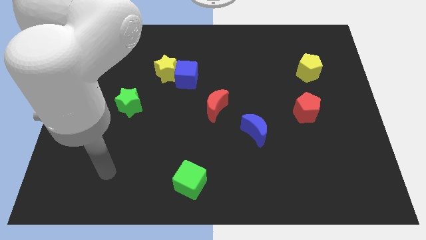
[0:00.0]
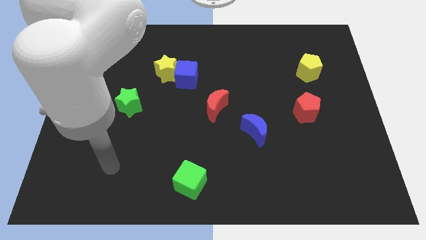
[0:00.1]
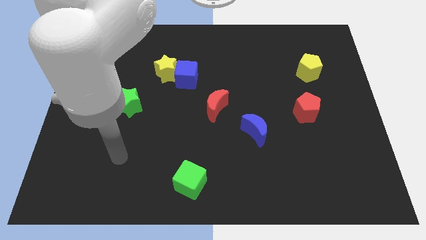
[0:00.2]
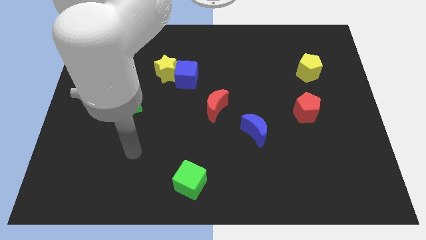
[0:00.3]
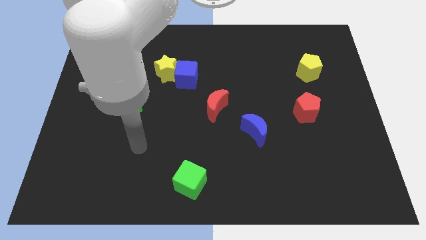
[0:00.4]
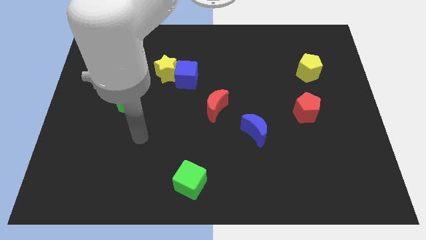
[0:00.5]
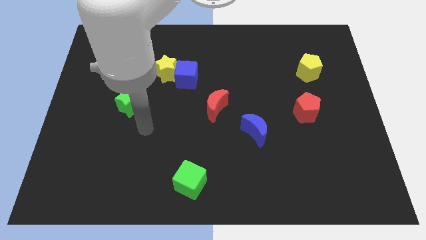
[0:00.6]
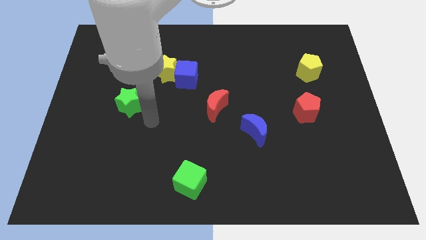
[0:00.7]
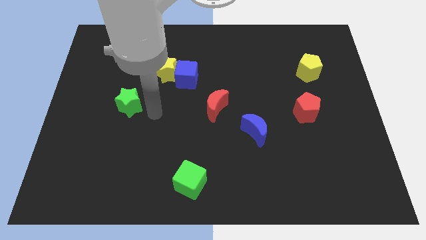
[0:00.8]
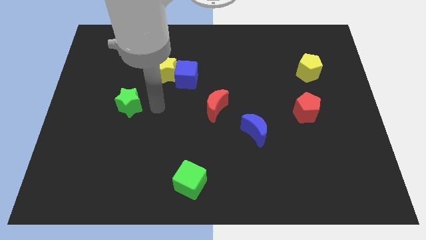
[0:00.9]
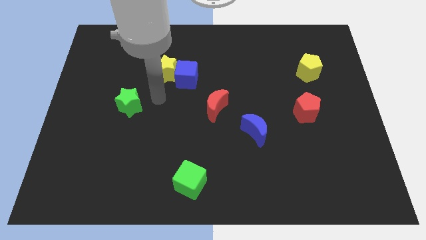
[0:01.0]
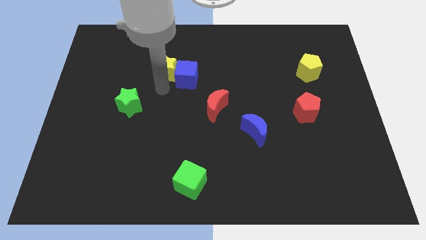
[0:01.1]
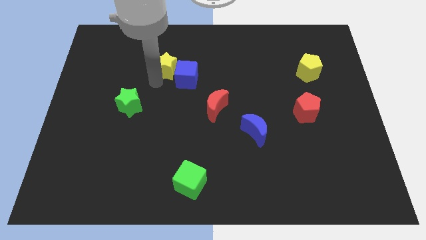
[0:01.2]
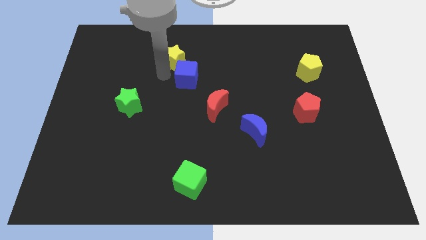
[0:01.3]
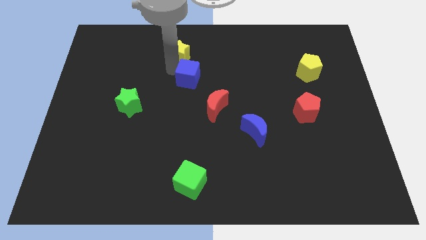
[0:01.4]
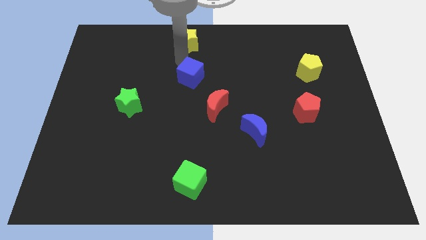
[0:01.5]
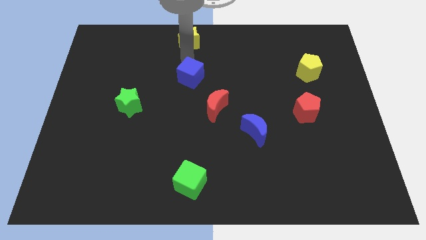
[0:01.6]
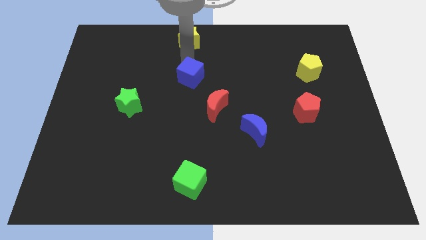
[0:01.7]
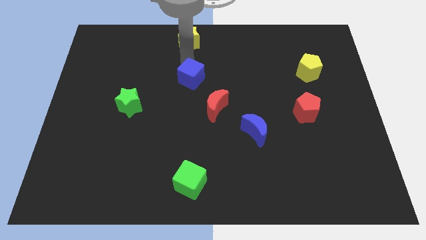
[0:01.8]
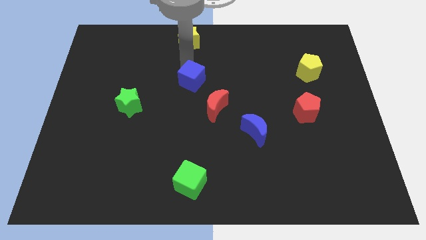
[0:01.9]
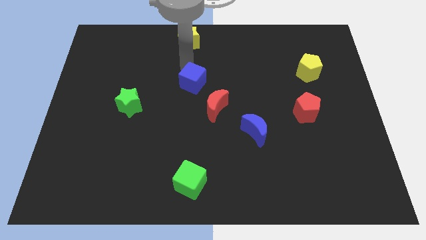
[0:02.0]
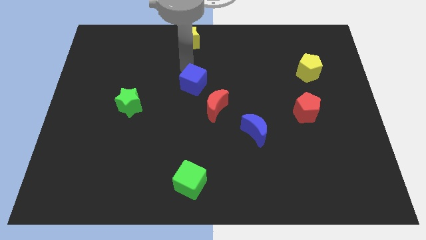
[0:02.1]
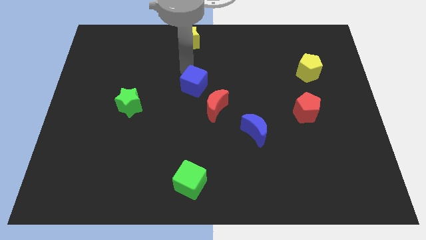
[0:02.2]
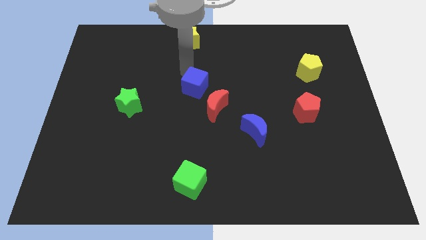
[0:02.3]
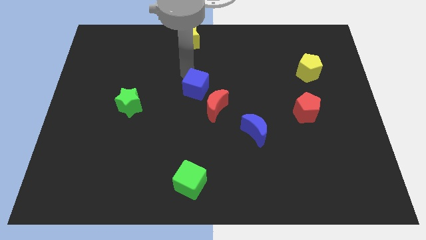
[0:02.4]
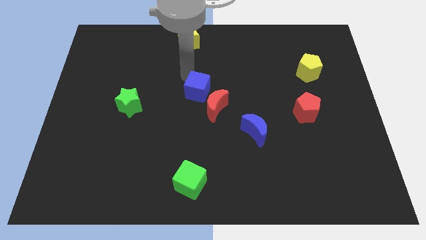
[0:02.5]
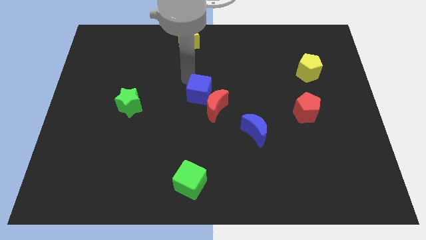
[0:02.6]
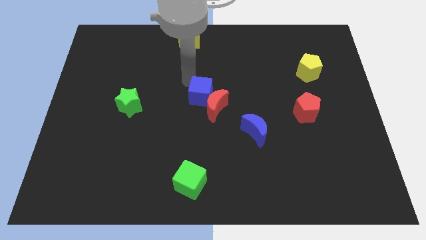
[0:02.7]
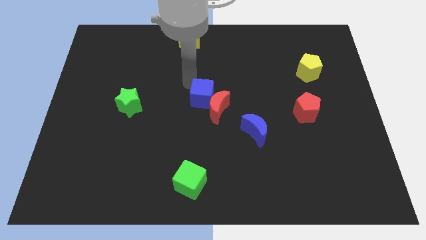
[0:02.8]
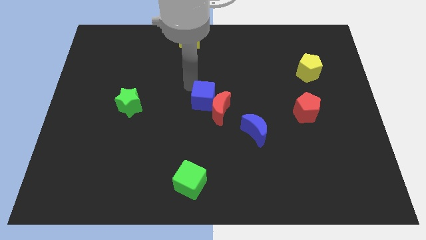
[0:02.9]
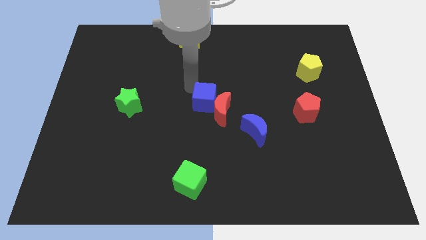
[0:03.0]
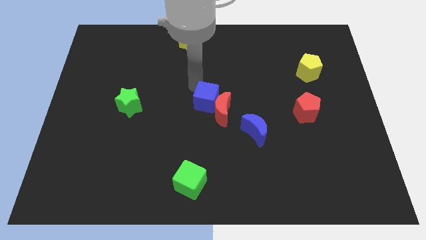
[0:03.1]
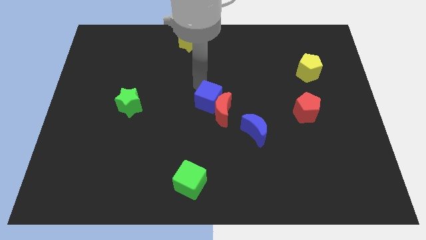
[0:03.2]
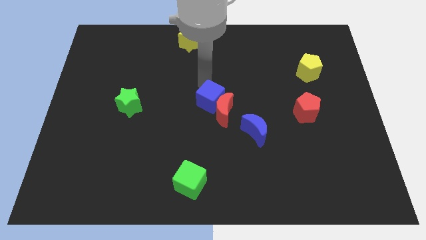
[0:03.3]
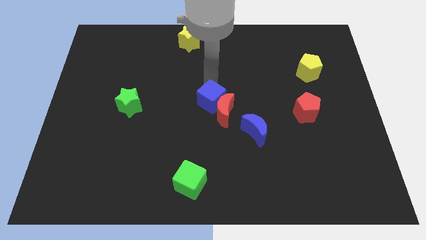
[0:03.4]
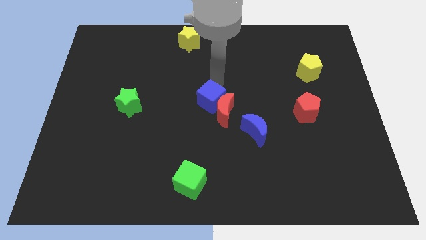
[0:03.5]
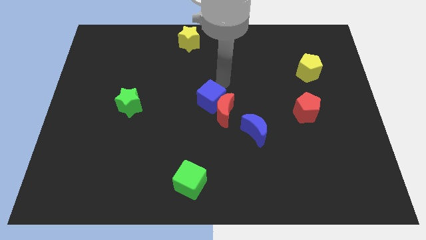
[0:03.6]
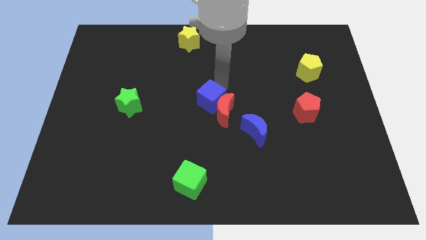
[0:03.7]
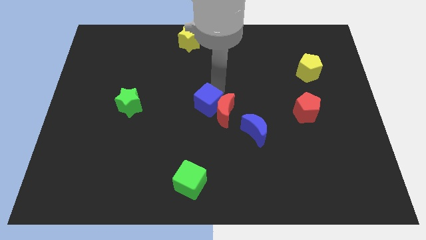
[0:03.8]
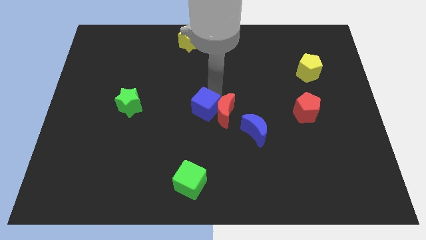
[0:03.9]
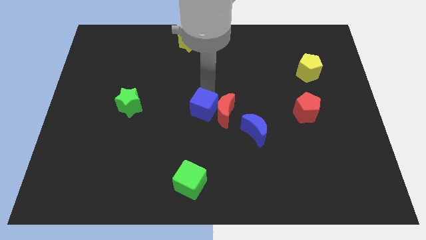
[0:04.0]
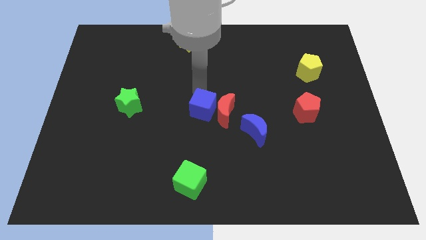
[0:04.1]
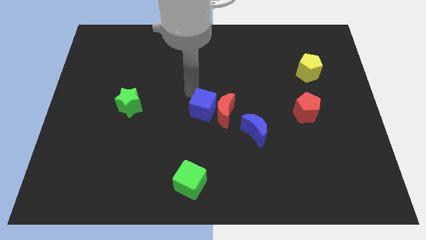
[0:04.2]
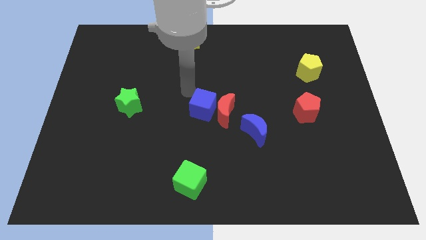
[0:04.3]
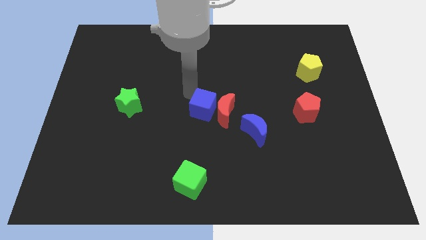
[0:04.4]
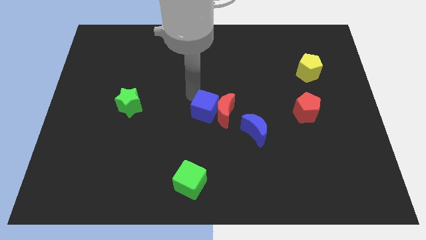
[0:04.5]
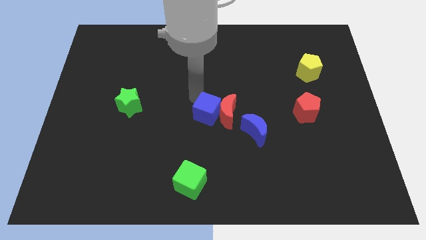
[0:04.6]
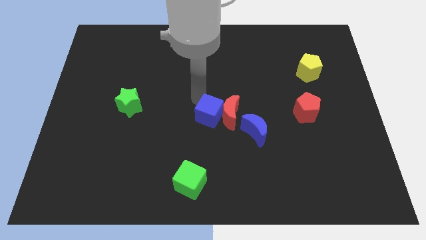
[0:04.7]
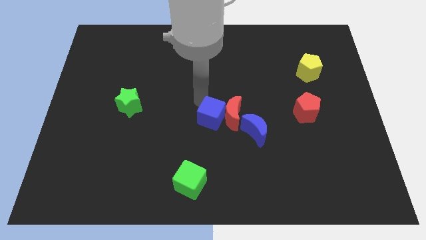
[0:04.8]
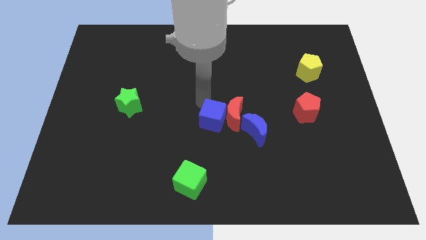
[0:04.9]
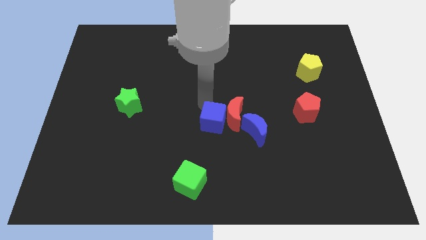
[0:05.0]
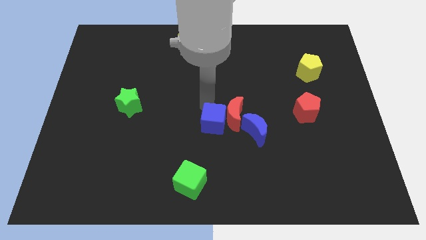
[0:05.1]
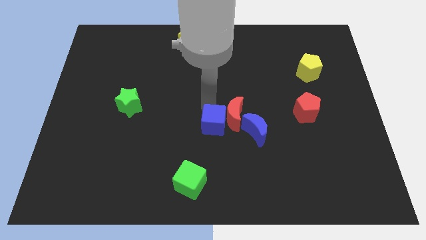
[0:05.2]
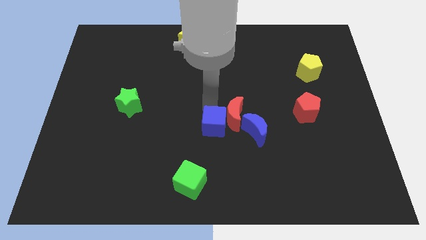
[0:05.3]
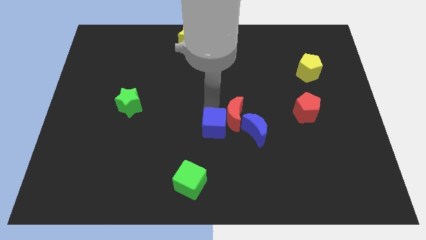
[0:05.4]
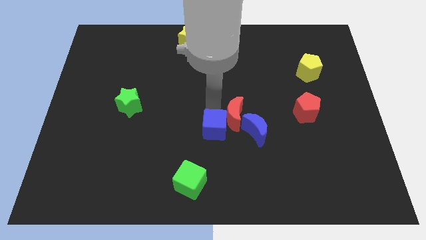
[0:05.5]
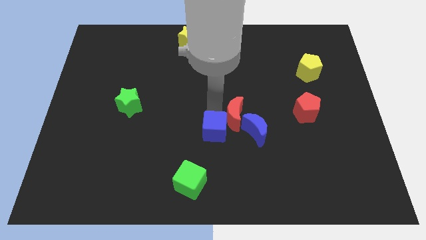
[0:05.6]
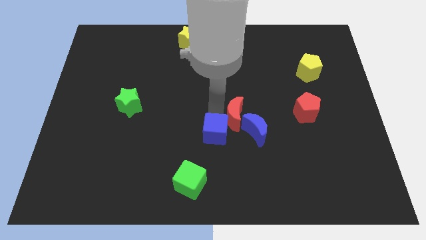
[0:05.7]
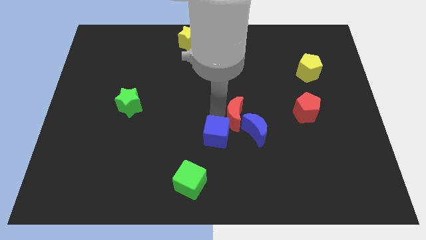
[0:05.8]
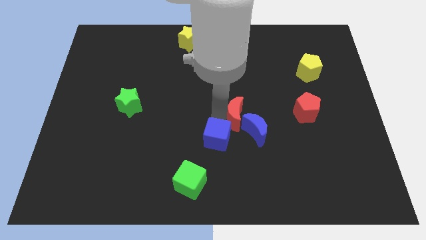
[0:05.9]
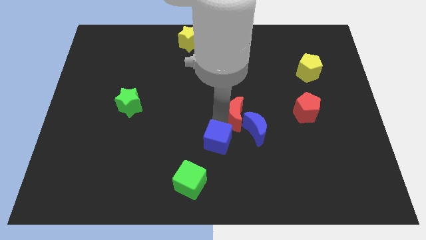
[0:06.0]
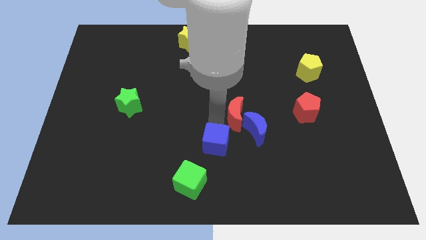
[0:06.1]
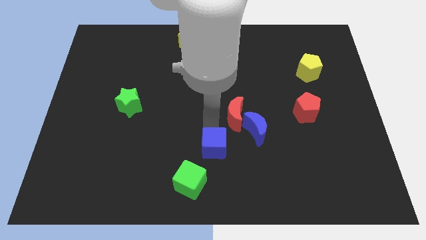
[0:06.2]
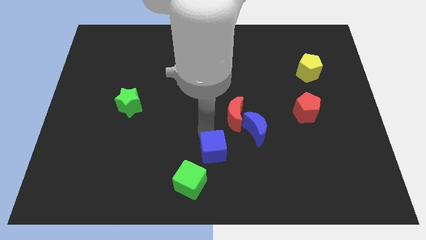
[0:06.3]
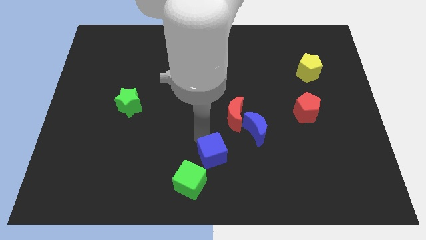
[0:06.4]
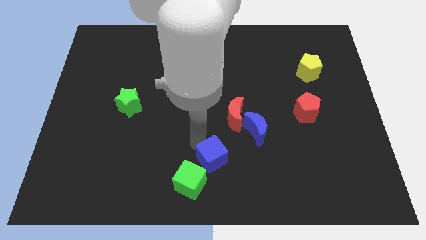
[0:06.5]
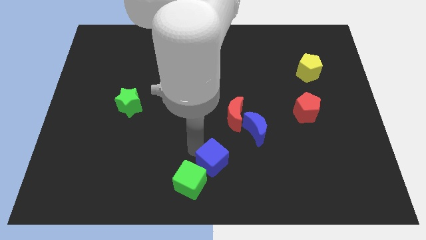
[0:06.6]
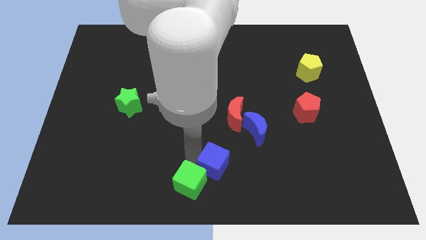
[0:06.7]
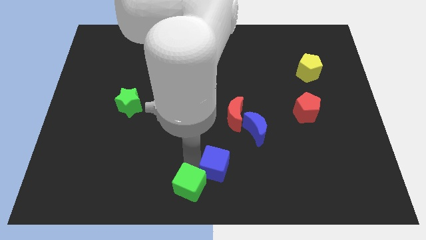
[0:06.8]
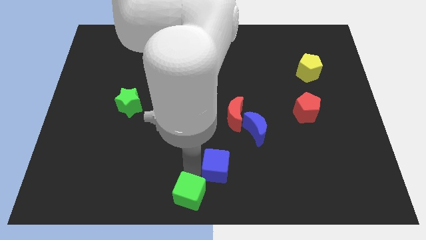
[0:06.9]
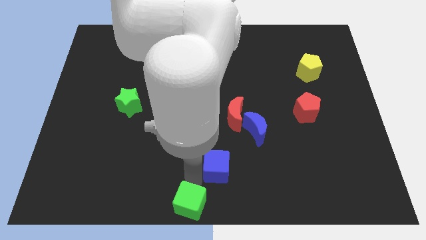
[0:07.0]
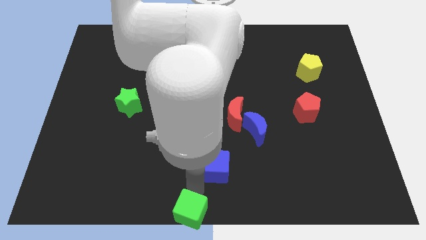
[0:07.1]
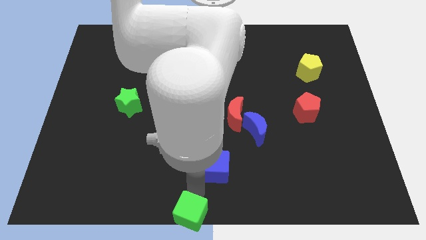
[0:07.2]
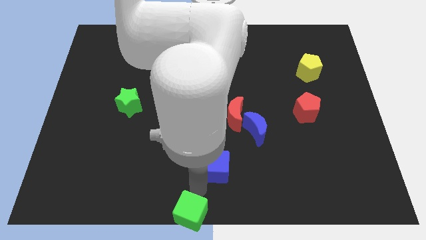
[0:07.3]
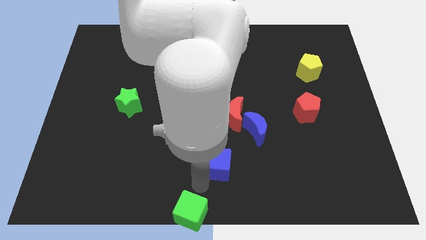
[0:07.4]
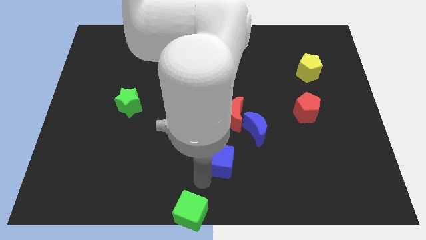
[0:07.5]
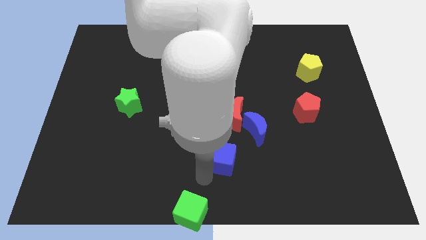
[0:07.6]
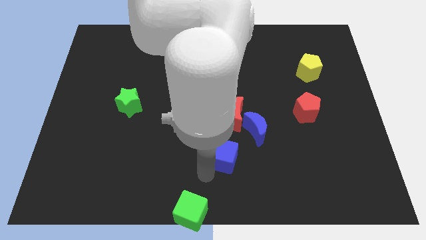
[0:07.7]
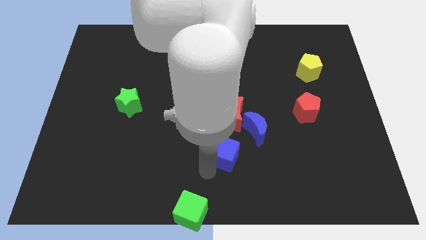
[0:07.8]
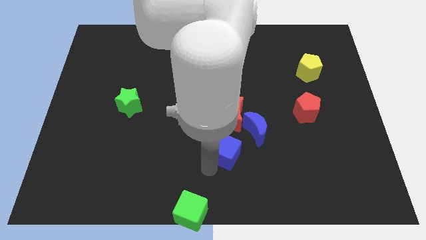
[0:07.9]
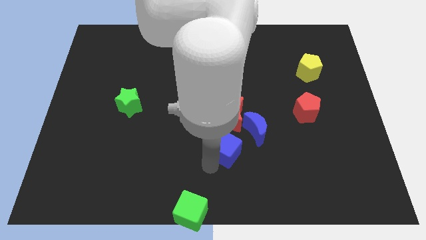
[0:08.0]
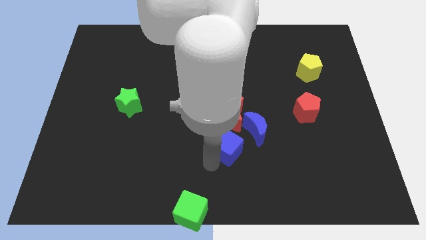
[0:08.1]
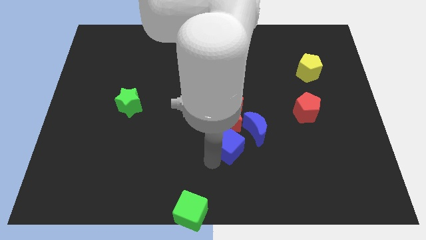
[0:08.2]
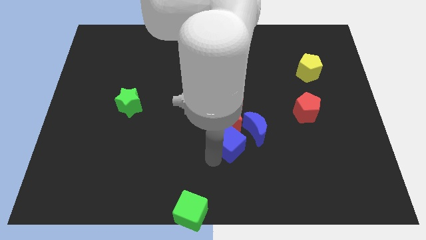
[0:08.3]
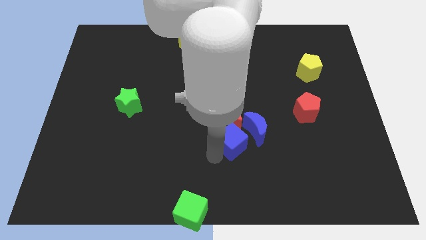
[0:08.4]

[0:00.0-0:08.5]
slide the blue cube diagonally down and right
